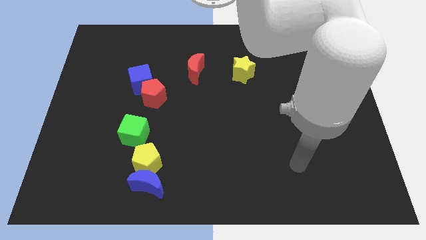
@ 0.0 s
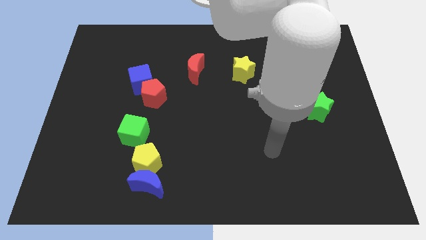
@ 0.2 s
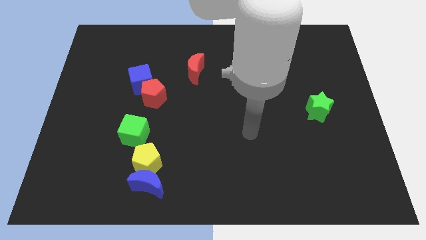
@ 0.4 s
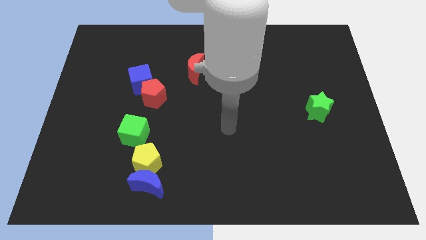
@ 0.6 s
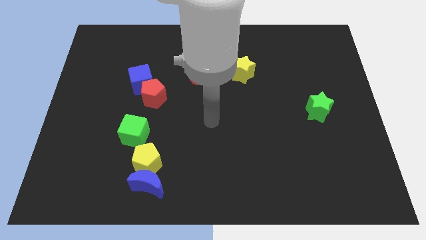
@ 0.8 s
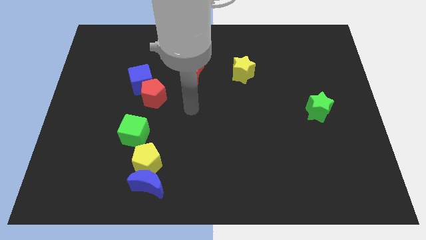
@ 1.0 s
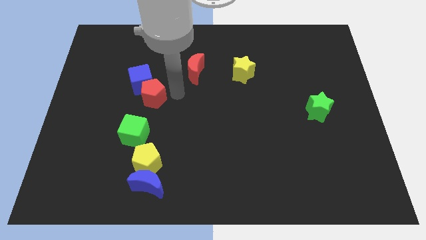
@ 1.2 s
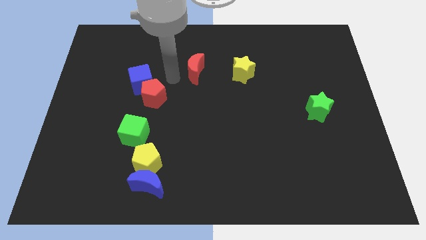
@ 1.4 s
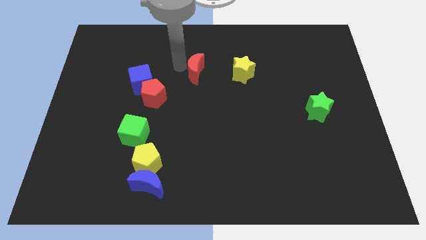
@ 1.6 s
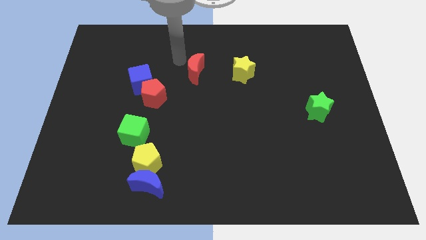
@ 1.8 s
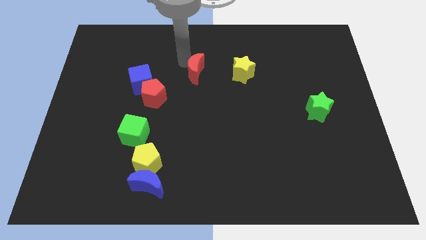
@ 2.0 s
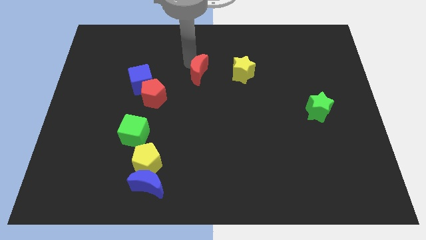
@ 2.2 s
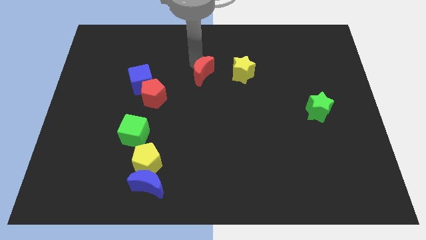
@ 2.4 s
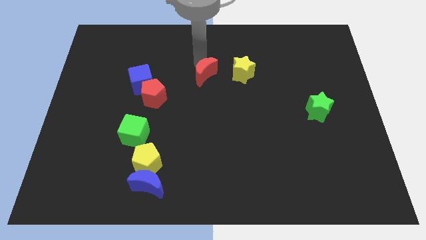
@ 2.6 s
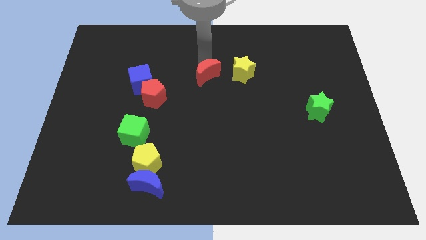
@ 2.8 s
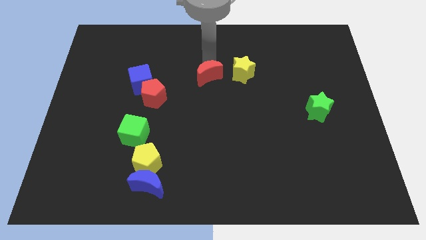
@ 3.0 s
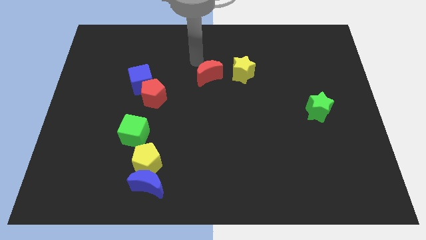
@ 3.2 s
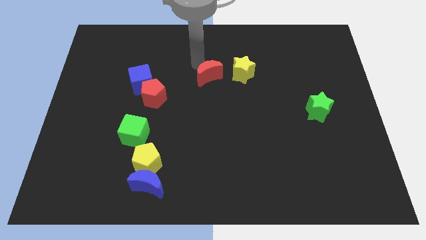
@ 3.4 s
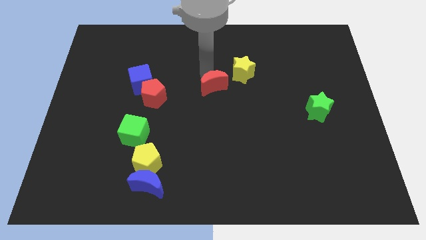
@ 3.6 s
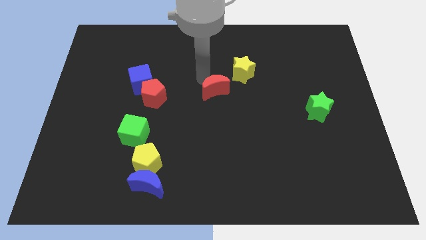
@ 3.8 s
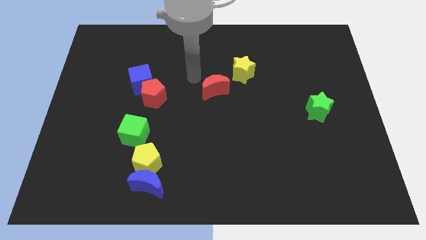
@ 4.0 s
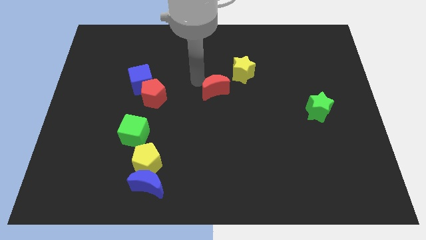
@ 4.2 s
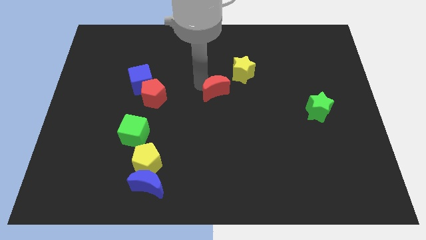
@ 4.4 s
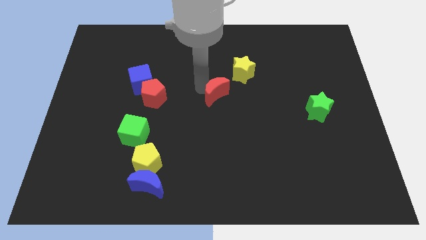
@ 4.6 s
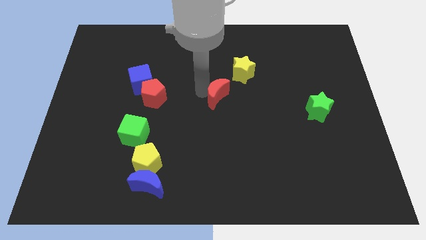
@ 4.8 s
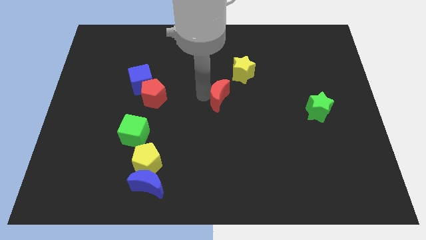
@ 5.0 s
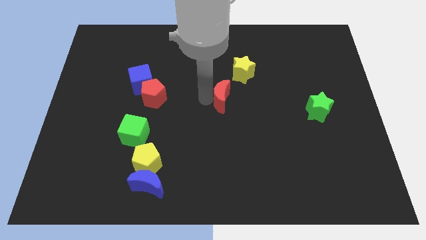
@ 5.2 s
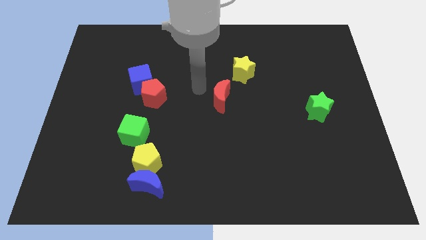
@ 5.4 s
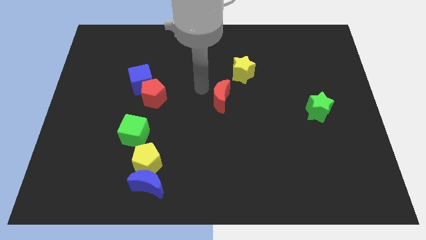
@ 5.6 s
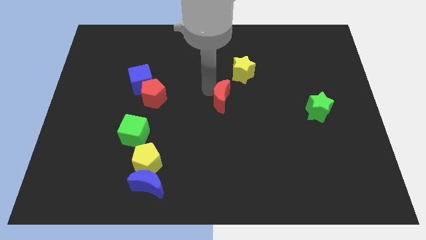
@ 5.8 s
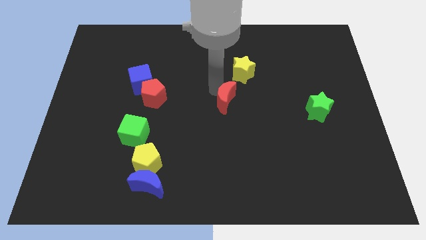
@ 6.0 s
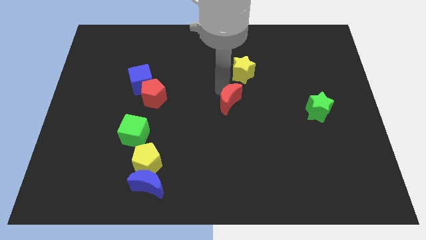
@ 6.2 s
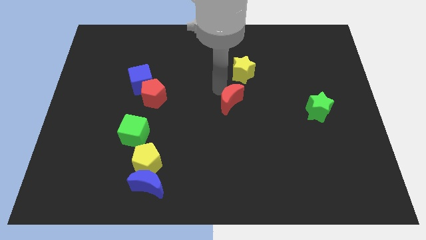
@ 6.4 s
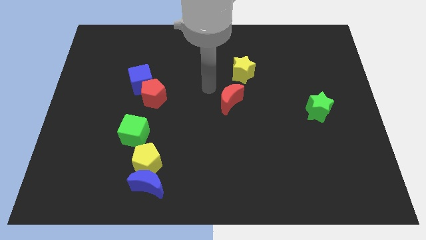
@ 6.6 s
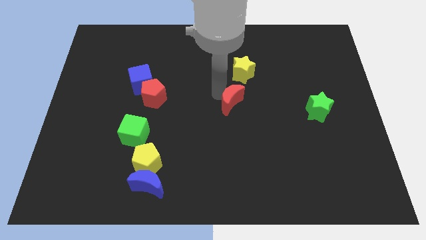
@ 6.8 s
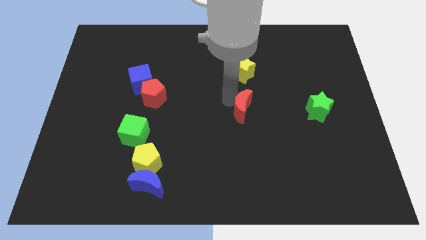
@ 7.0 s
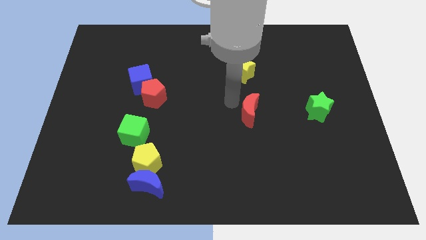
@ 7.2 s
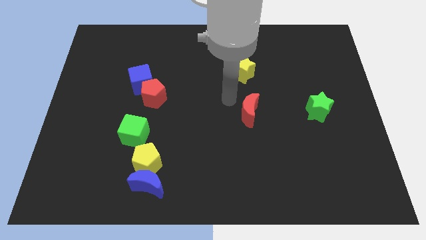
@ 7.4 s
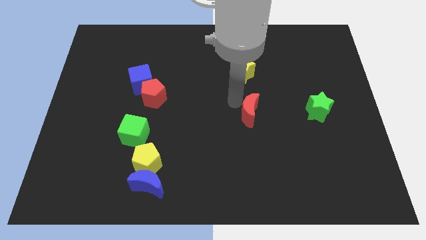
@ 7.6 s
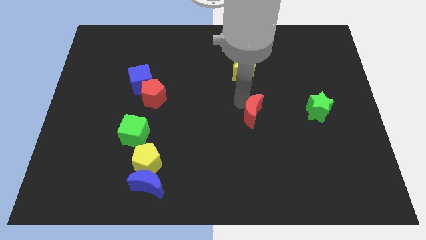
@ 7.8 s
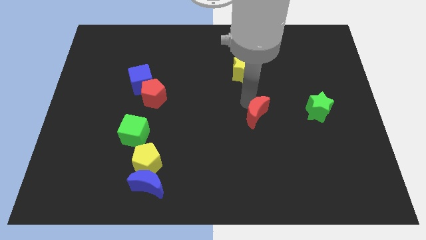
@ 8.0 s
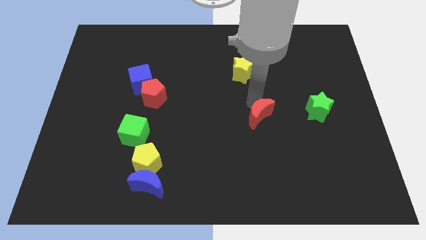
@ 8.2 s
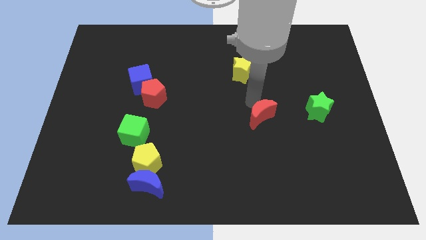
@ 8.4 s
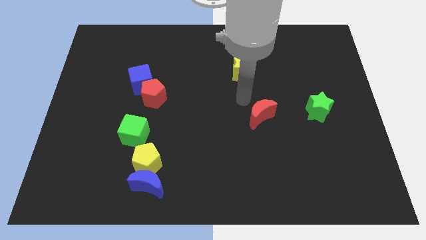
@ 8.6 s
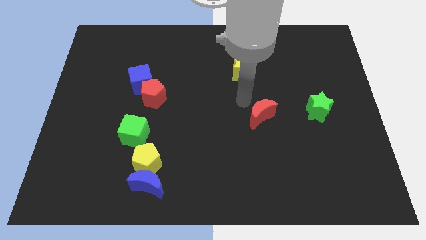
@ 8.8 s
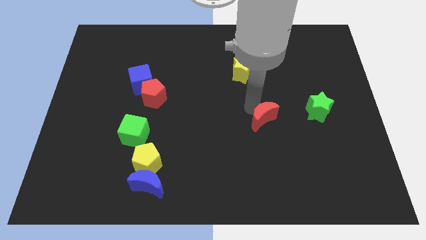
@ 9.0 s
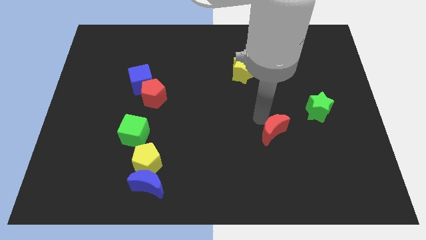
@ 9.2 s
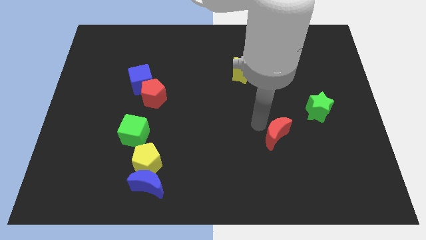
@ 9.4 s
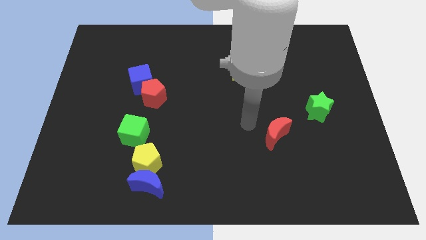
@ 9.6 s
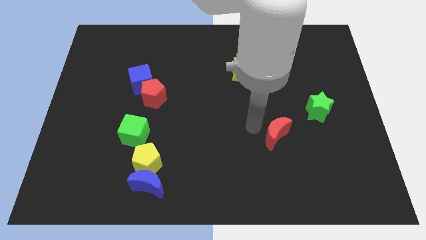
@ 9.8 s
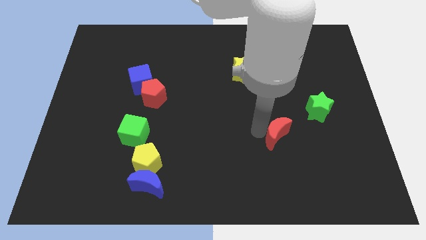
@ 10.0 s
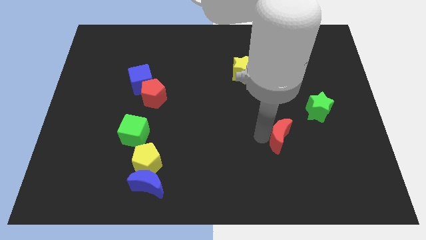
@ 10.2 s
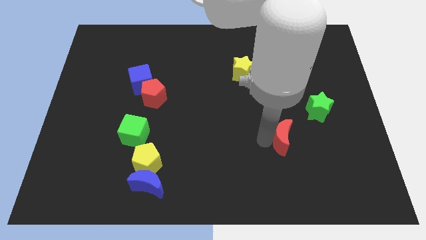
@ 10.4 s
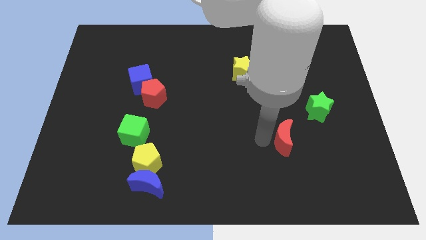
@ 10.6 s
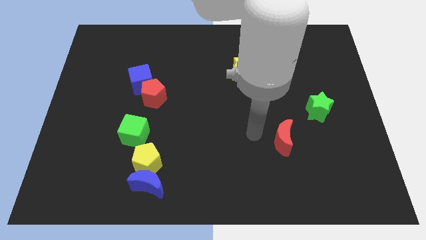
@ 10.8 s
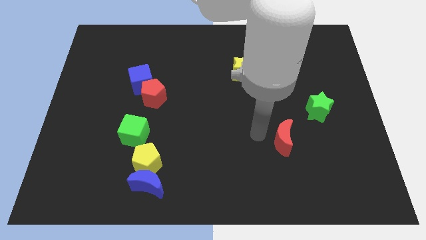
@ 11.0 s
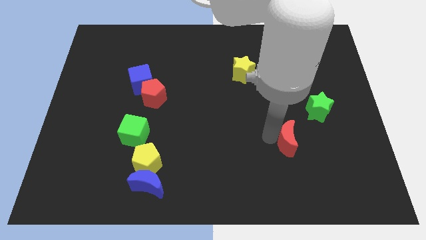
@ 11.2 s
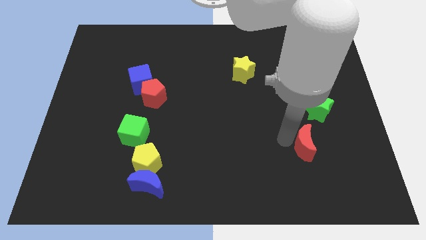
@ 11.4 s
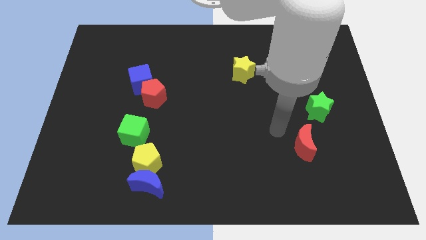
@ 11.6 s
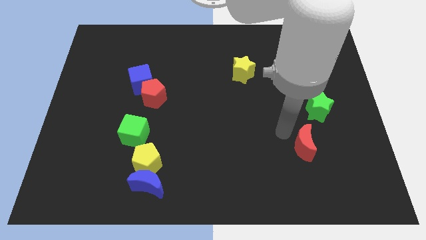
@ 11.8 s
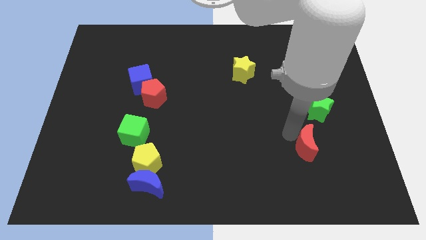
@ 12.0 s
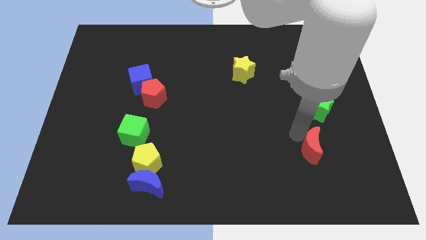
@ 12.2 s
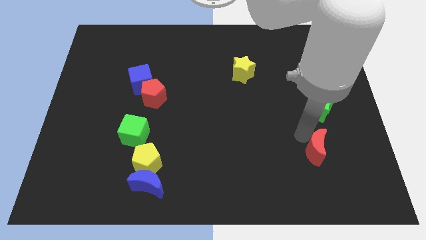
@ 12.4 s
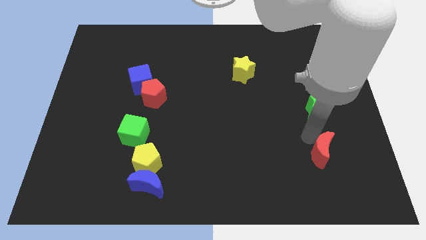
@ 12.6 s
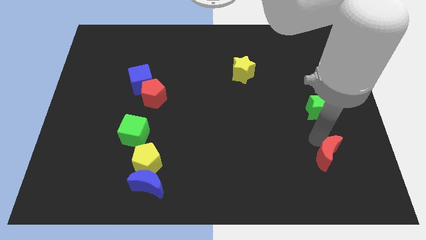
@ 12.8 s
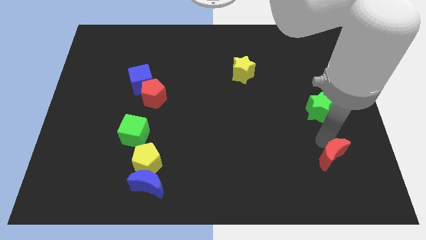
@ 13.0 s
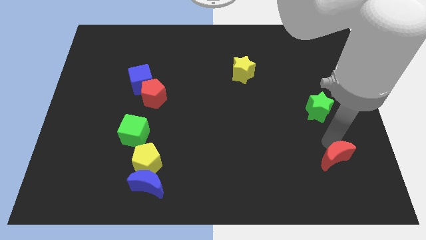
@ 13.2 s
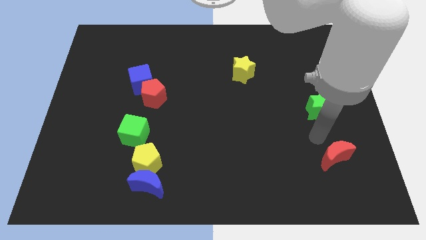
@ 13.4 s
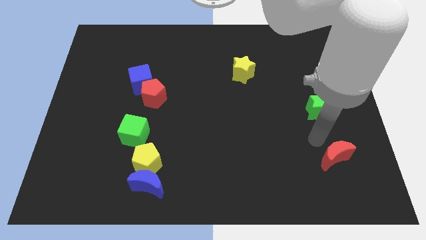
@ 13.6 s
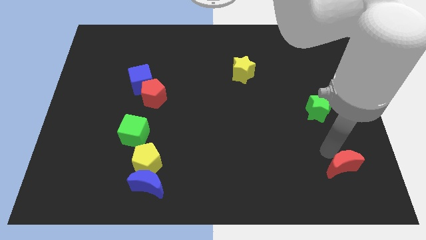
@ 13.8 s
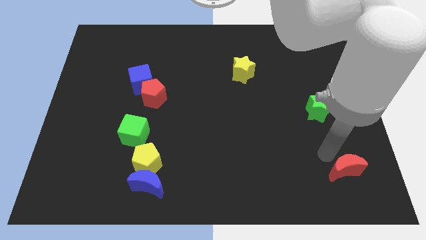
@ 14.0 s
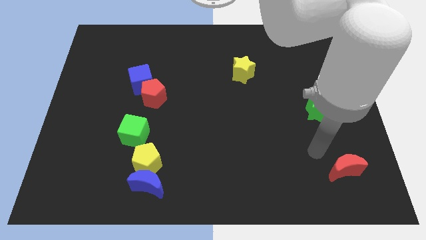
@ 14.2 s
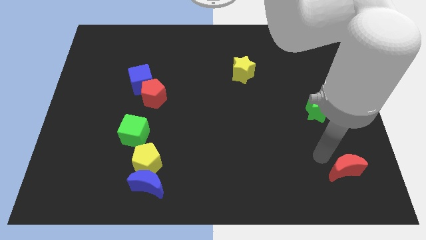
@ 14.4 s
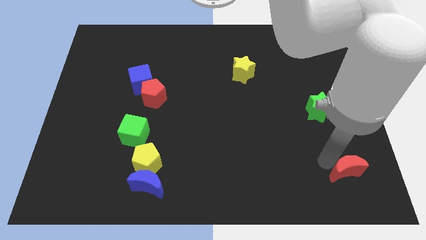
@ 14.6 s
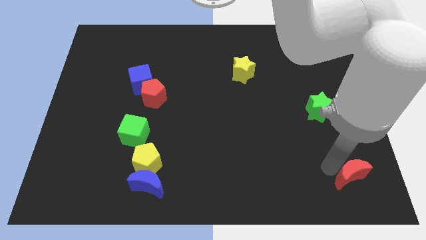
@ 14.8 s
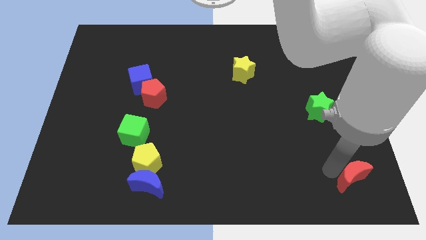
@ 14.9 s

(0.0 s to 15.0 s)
put the red moon to the bottom right
